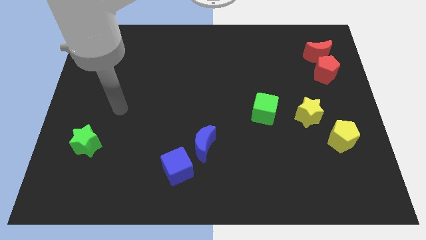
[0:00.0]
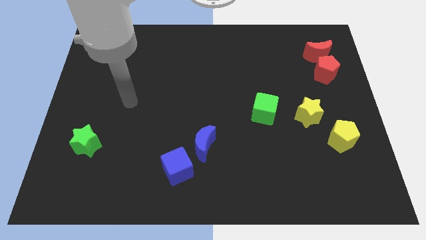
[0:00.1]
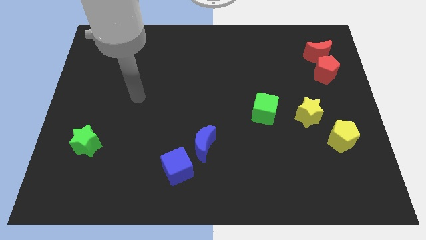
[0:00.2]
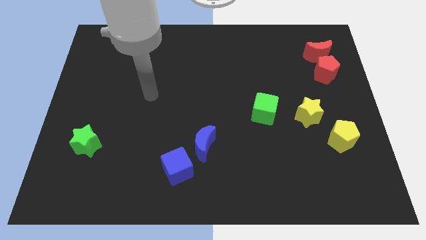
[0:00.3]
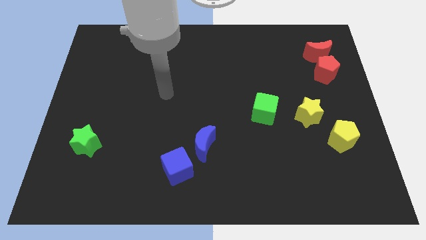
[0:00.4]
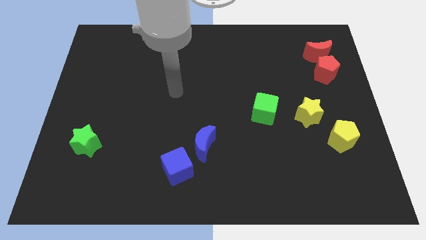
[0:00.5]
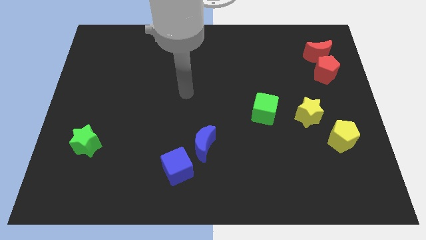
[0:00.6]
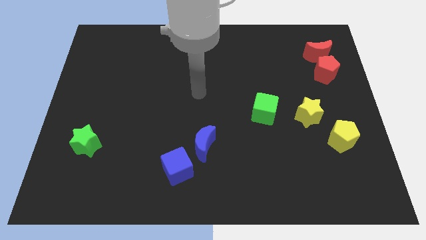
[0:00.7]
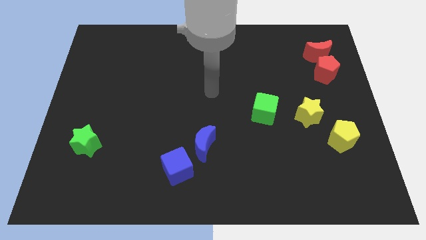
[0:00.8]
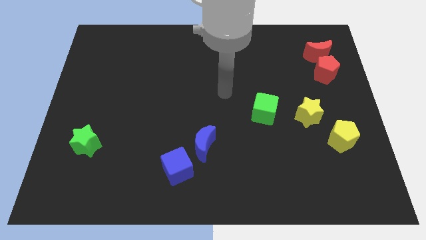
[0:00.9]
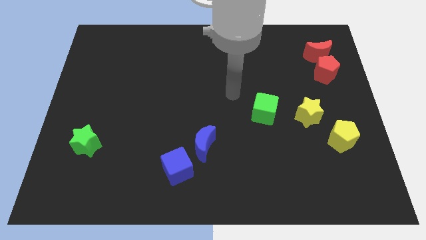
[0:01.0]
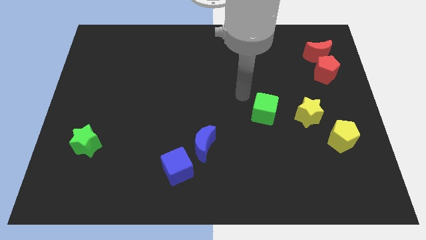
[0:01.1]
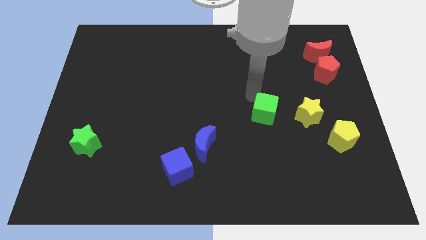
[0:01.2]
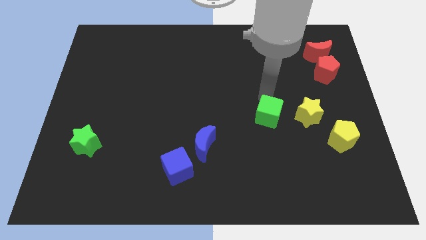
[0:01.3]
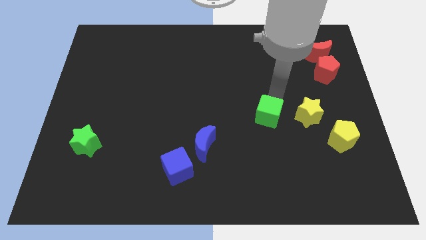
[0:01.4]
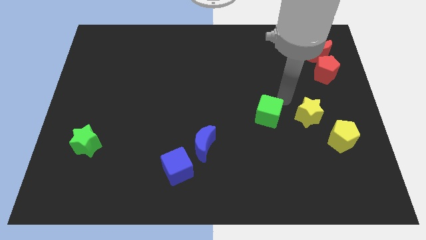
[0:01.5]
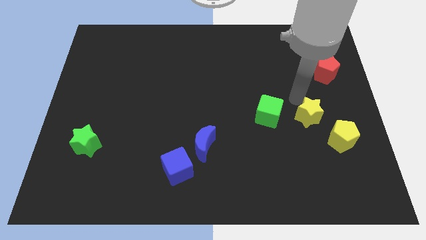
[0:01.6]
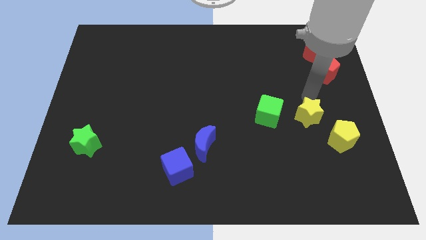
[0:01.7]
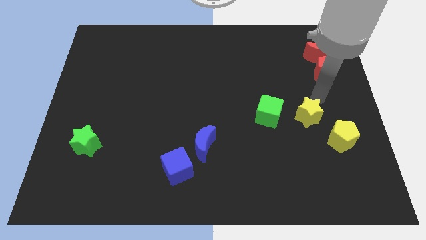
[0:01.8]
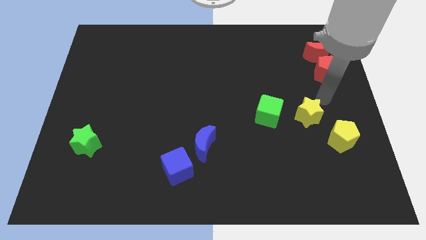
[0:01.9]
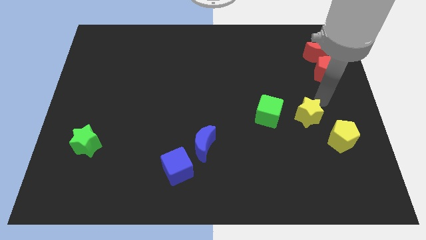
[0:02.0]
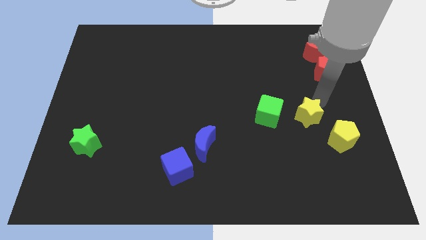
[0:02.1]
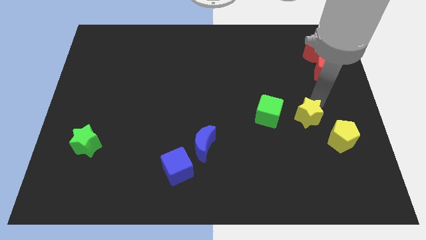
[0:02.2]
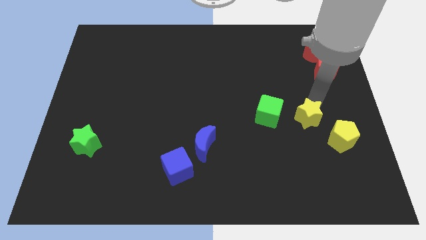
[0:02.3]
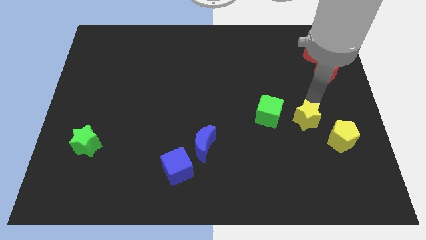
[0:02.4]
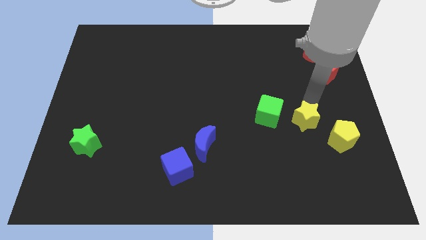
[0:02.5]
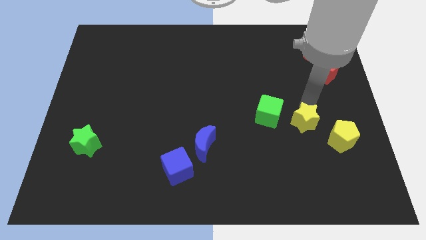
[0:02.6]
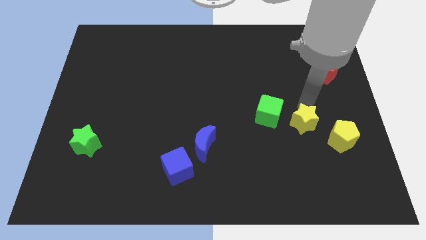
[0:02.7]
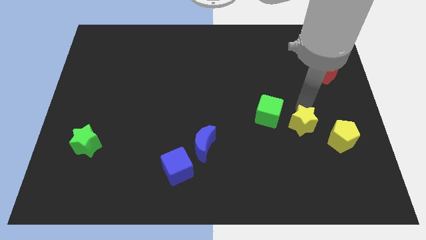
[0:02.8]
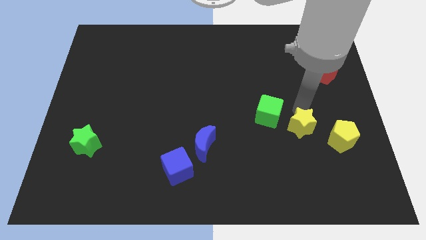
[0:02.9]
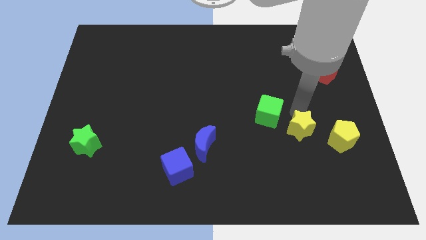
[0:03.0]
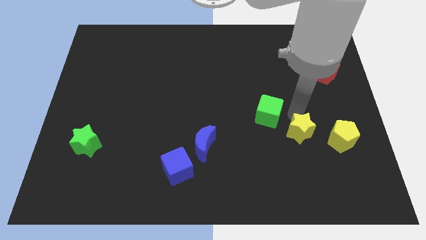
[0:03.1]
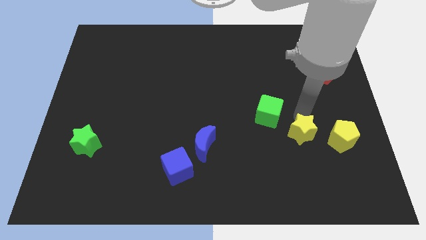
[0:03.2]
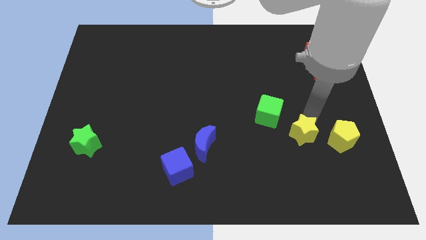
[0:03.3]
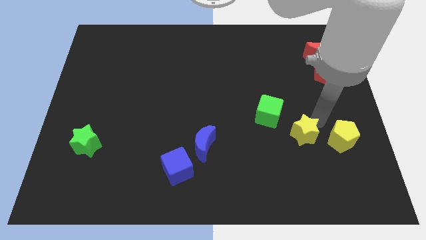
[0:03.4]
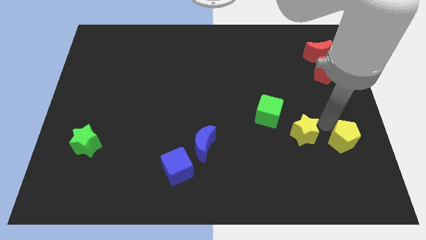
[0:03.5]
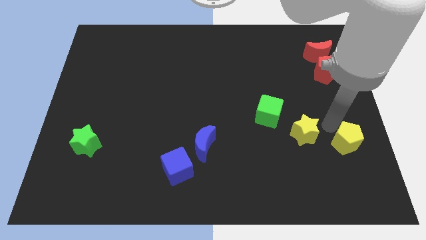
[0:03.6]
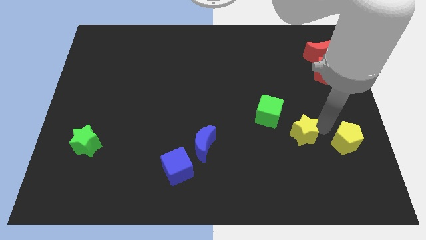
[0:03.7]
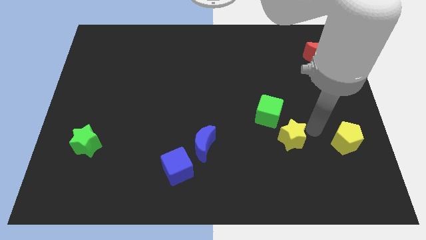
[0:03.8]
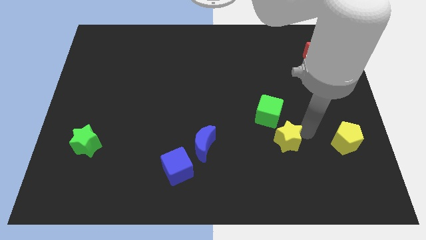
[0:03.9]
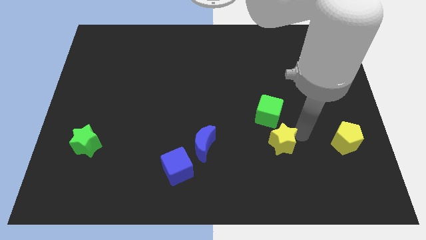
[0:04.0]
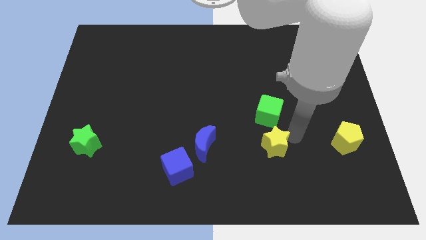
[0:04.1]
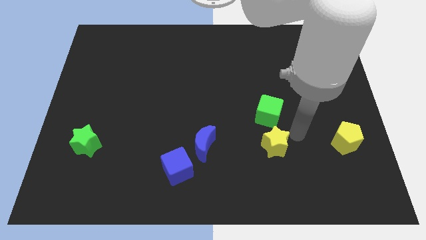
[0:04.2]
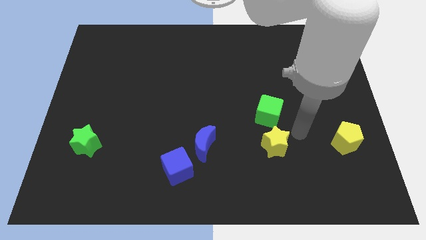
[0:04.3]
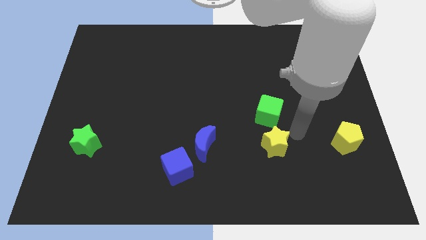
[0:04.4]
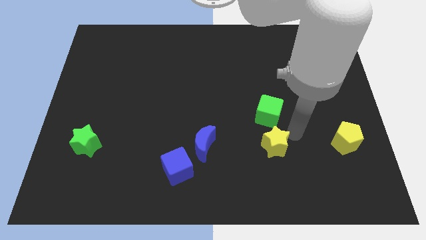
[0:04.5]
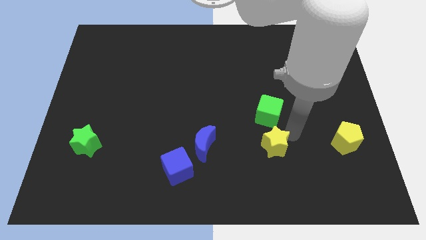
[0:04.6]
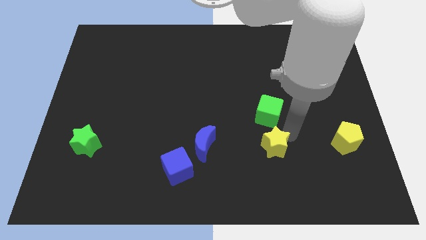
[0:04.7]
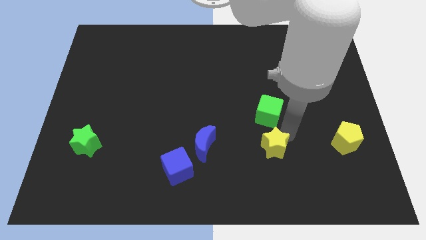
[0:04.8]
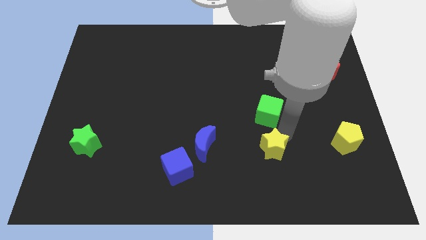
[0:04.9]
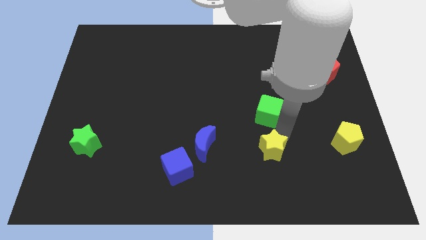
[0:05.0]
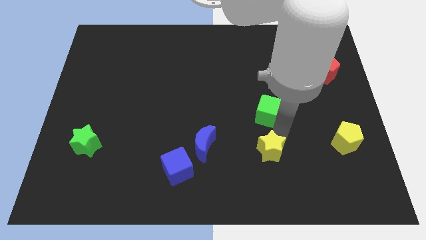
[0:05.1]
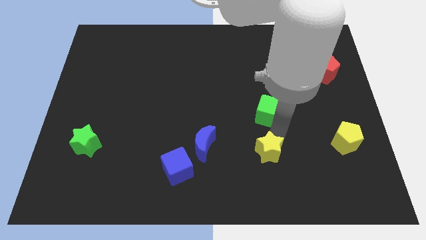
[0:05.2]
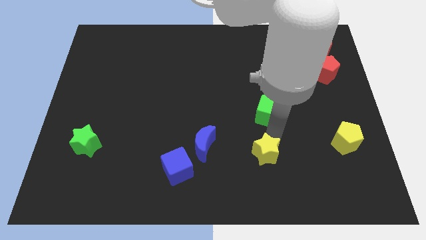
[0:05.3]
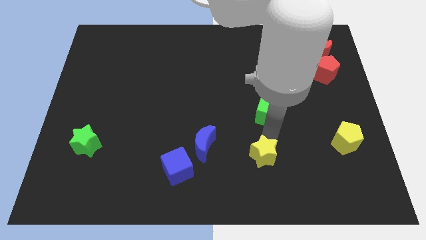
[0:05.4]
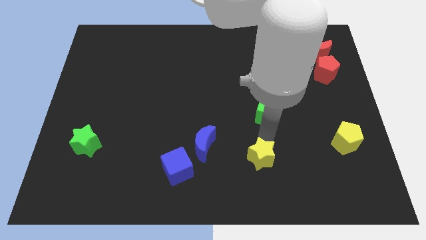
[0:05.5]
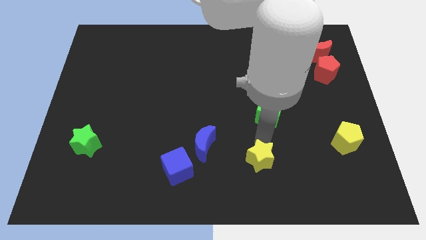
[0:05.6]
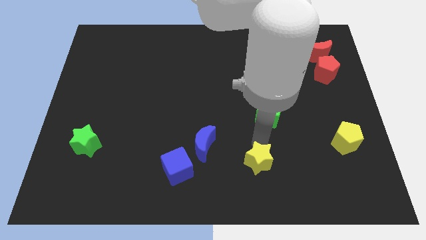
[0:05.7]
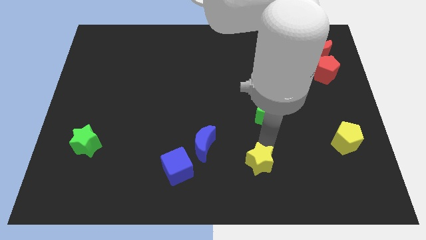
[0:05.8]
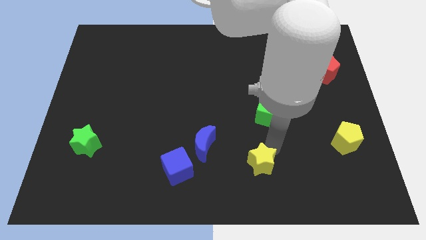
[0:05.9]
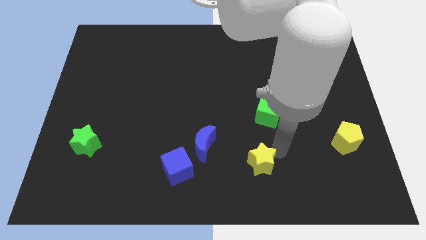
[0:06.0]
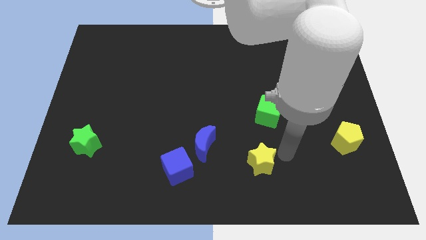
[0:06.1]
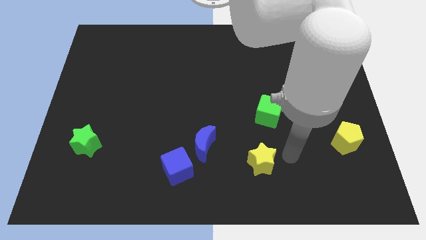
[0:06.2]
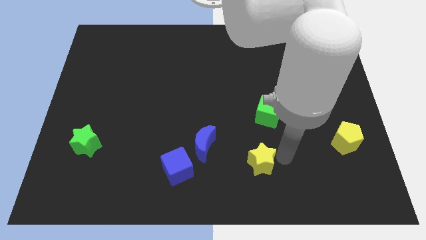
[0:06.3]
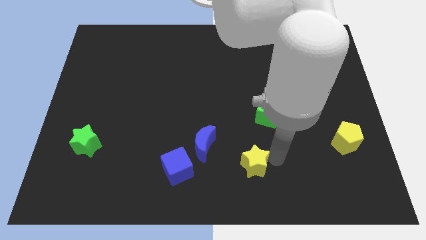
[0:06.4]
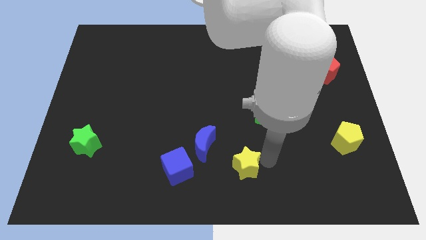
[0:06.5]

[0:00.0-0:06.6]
move the yellow star diagonally down and to the right of the blue moon
